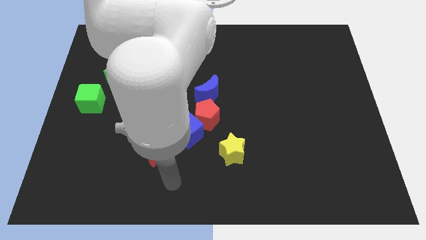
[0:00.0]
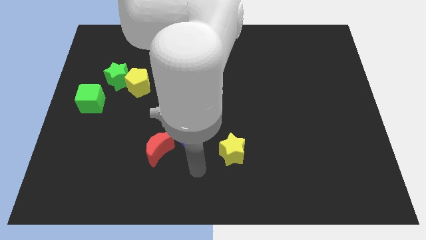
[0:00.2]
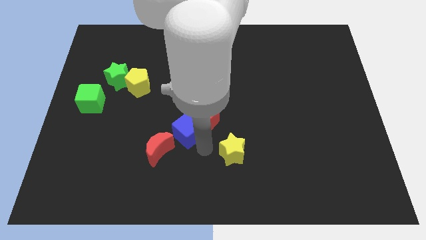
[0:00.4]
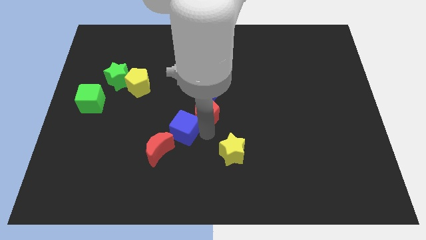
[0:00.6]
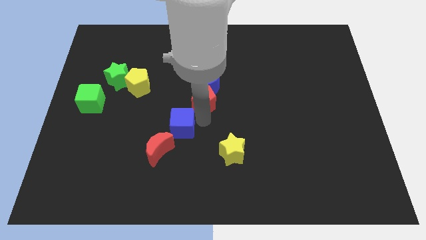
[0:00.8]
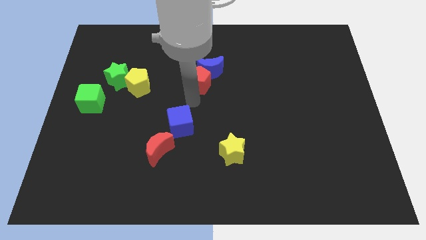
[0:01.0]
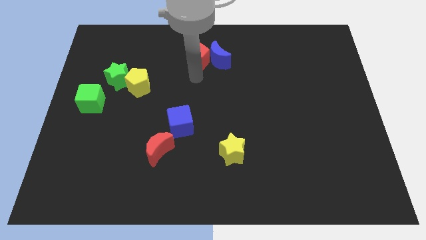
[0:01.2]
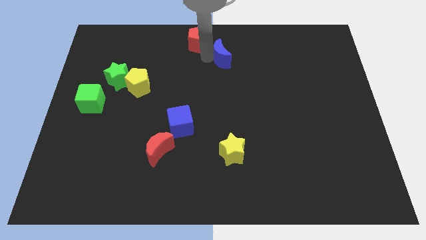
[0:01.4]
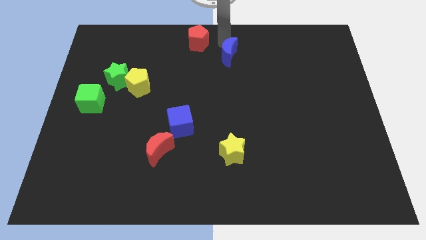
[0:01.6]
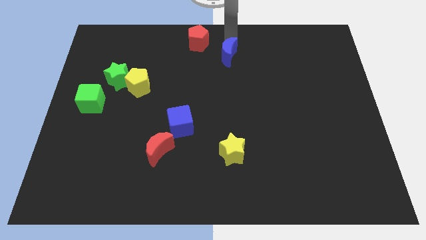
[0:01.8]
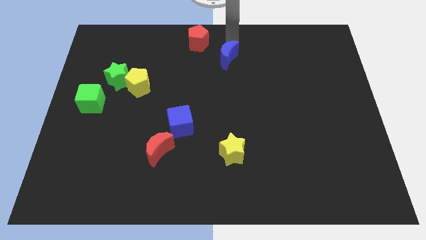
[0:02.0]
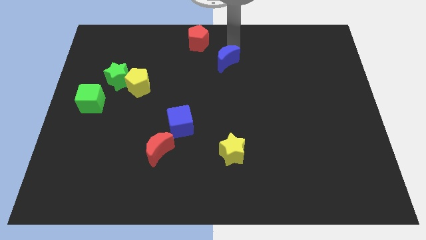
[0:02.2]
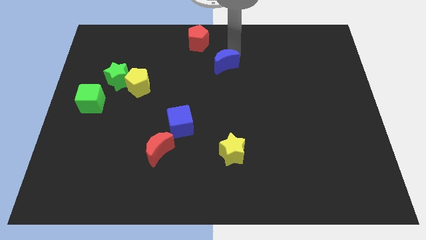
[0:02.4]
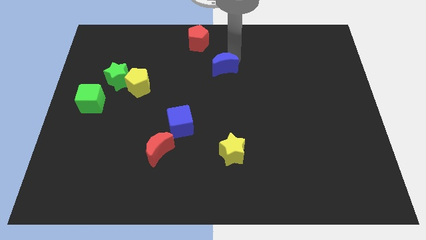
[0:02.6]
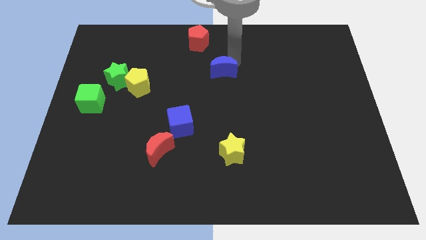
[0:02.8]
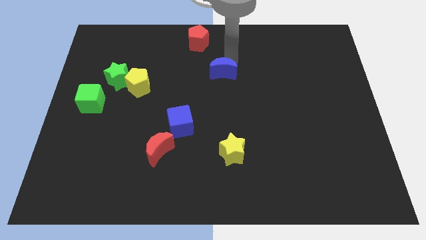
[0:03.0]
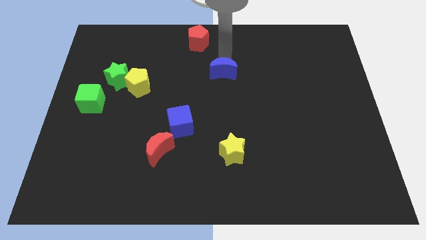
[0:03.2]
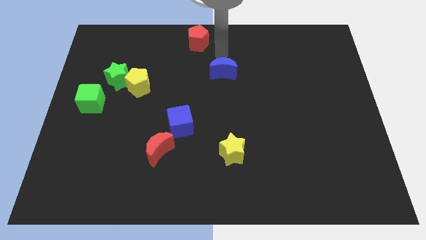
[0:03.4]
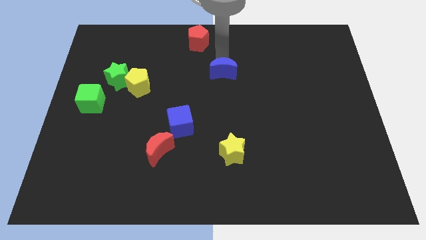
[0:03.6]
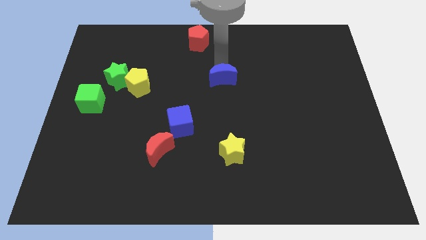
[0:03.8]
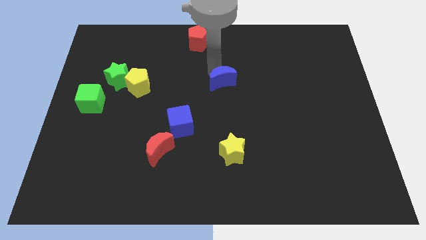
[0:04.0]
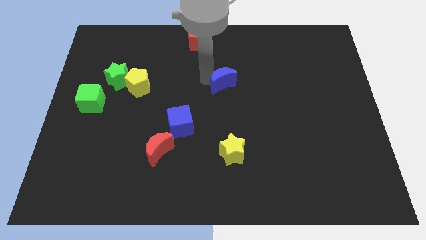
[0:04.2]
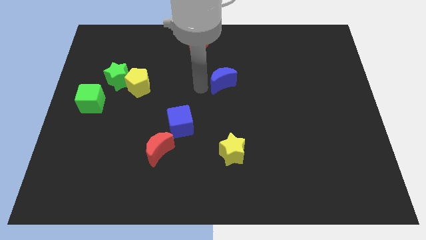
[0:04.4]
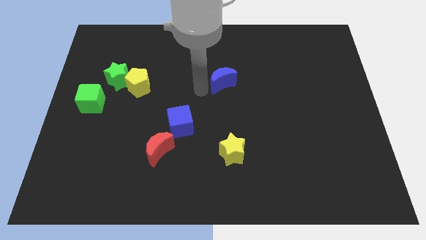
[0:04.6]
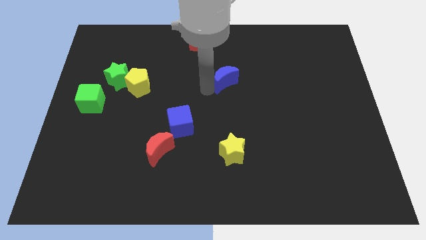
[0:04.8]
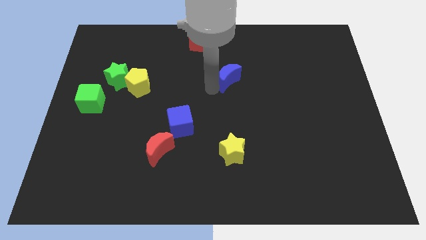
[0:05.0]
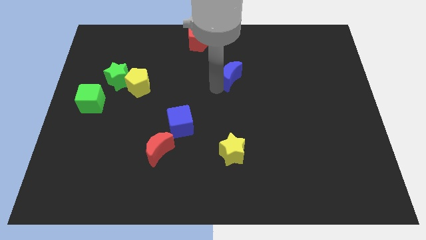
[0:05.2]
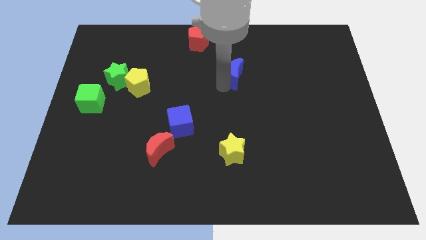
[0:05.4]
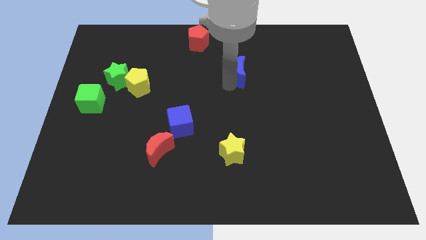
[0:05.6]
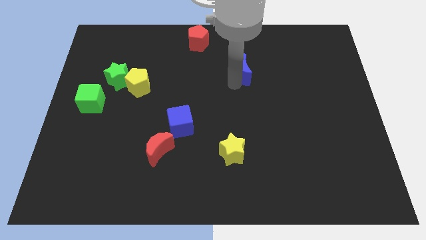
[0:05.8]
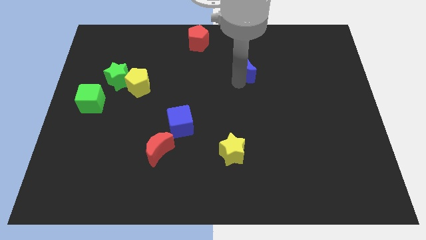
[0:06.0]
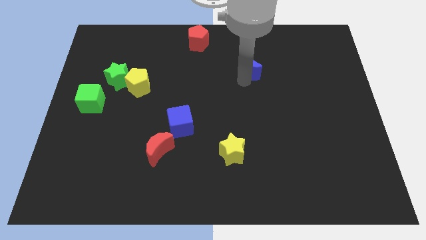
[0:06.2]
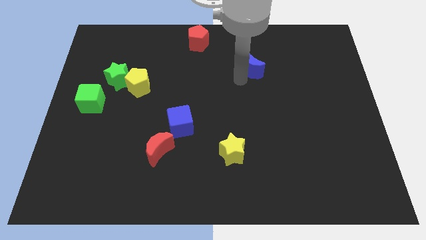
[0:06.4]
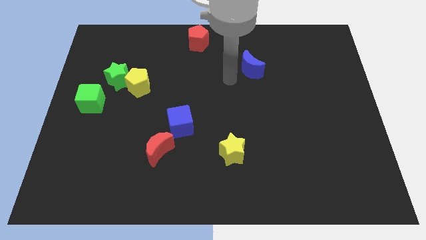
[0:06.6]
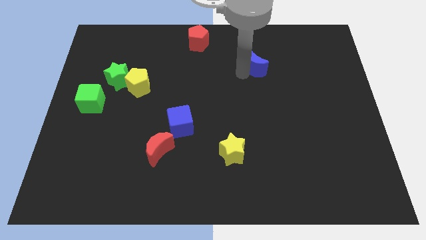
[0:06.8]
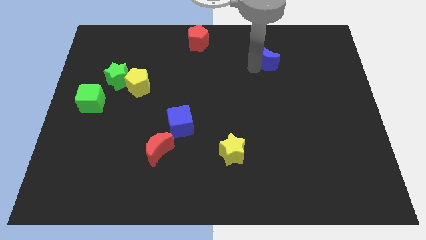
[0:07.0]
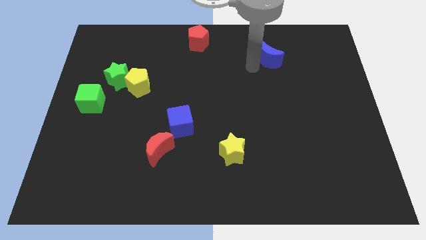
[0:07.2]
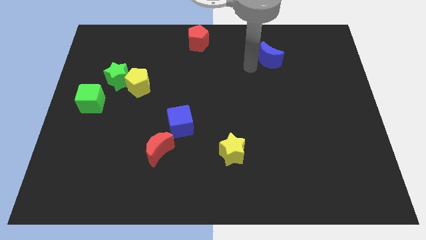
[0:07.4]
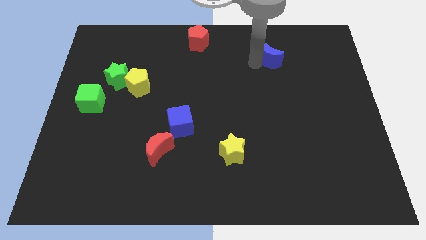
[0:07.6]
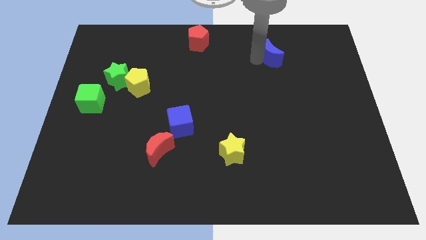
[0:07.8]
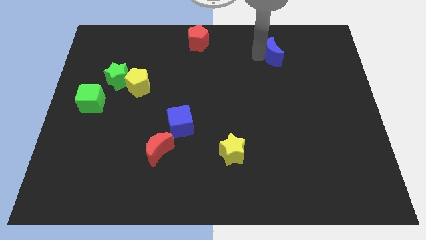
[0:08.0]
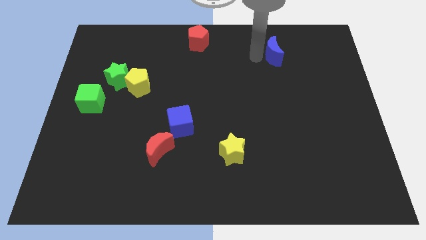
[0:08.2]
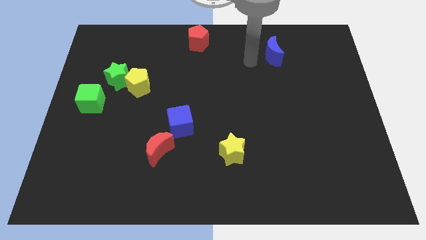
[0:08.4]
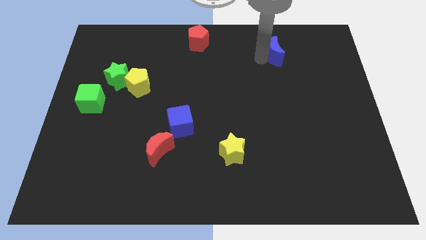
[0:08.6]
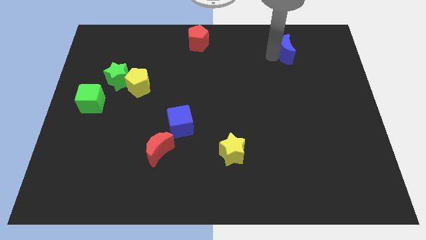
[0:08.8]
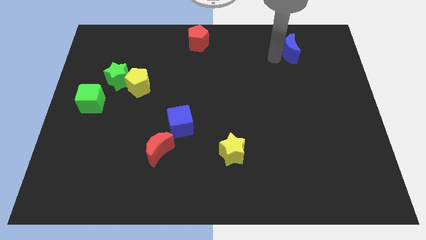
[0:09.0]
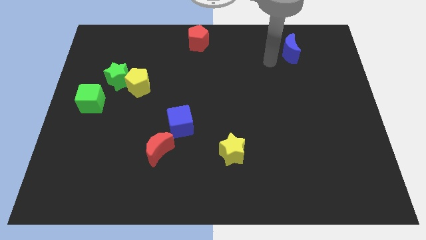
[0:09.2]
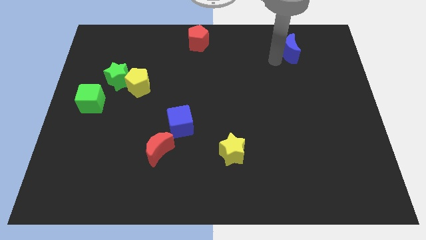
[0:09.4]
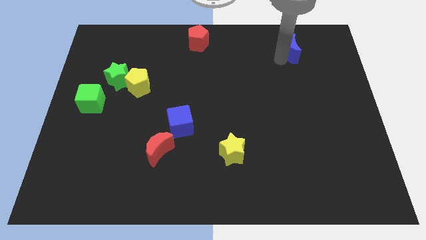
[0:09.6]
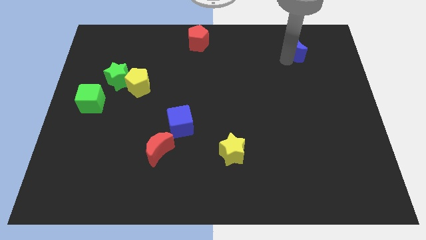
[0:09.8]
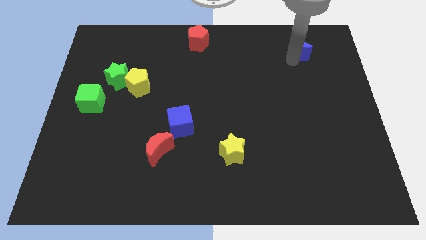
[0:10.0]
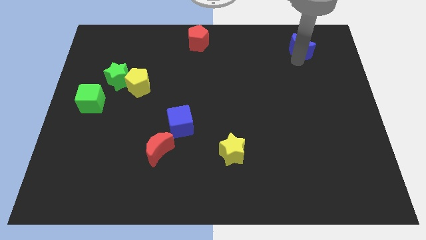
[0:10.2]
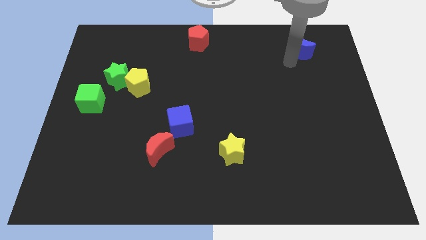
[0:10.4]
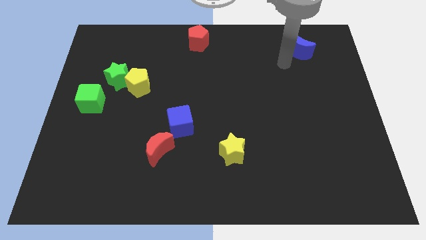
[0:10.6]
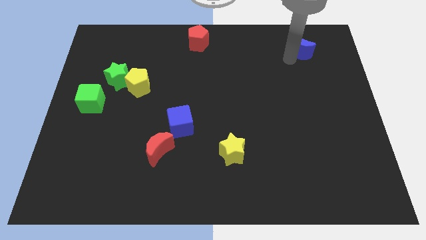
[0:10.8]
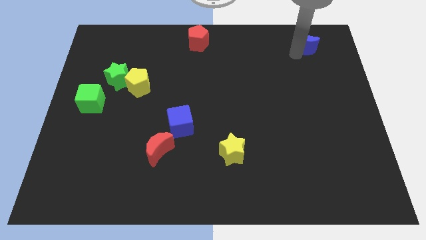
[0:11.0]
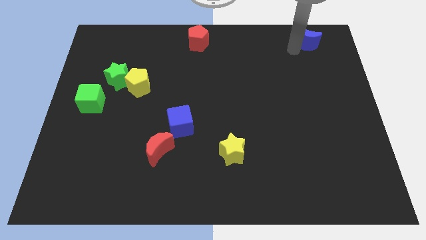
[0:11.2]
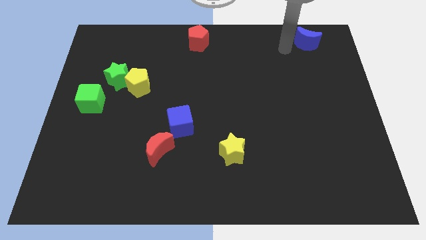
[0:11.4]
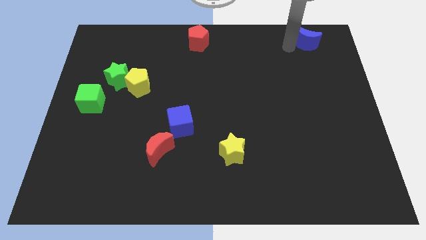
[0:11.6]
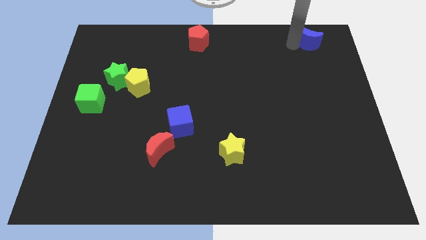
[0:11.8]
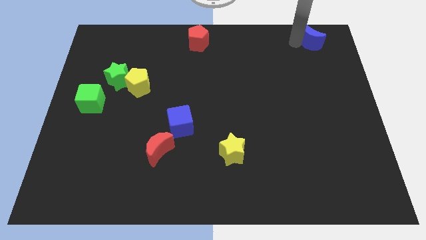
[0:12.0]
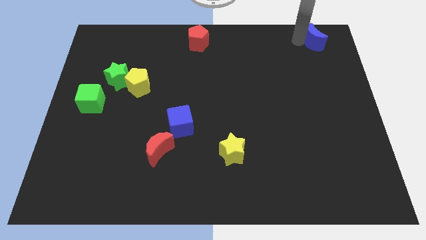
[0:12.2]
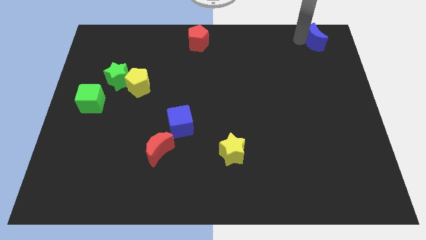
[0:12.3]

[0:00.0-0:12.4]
move the blue moon to the top right of the board
